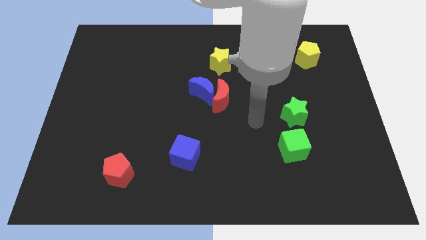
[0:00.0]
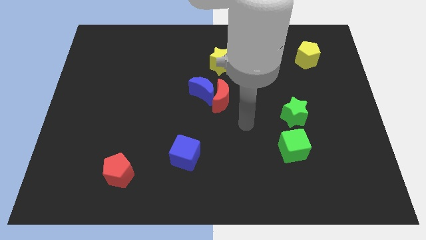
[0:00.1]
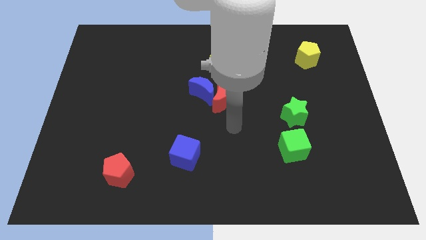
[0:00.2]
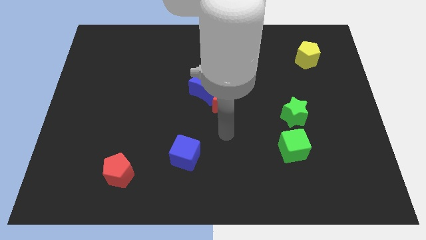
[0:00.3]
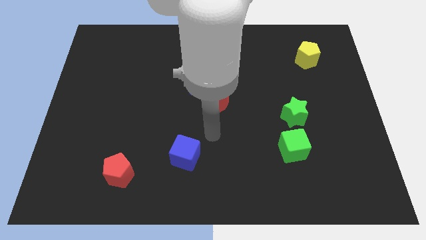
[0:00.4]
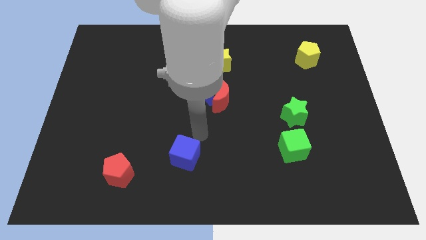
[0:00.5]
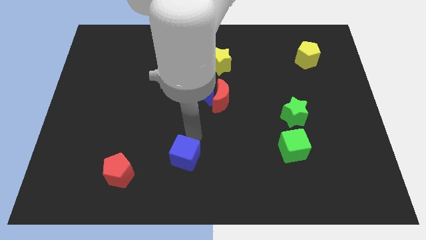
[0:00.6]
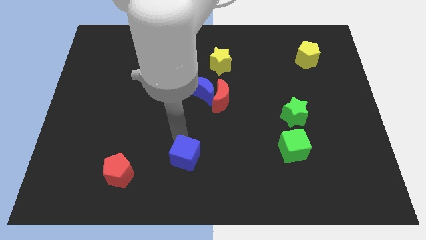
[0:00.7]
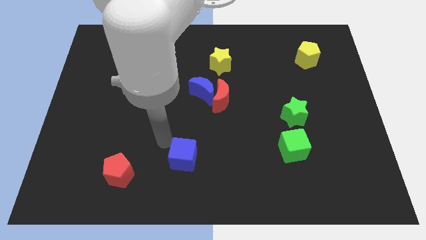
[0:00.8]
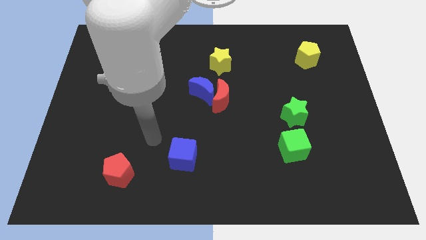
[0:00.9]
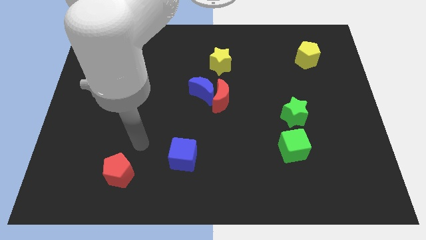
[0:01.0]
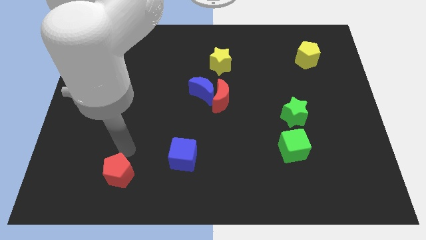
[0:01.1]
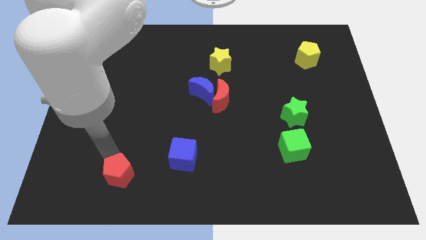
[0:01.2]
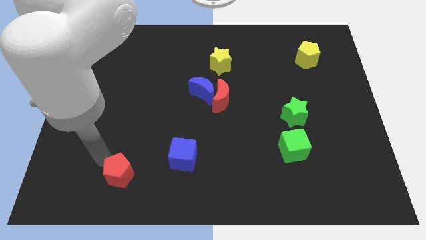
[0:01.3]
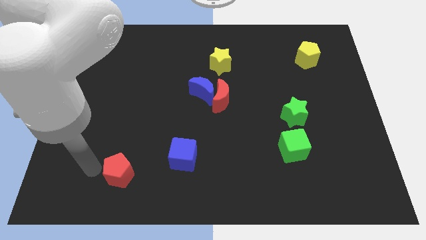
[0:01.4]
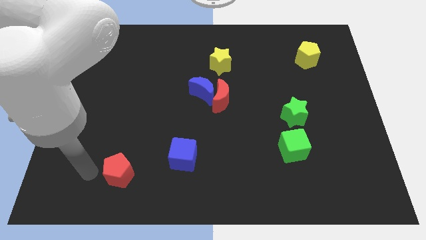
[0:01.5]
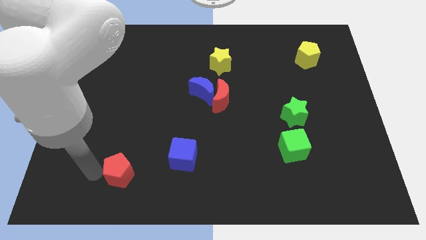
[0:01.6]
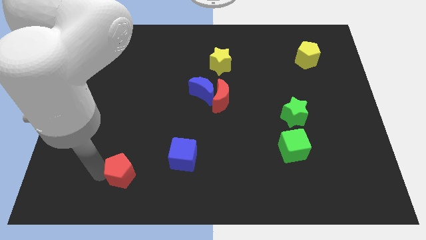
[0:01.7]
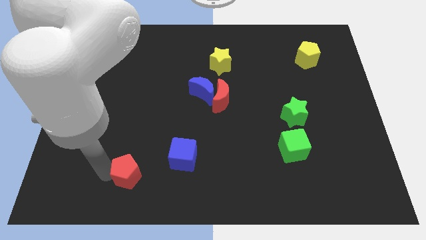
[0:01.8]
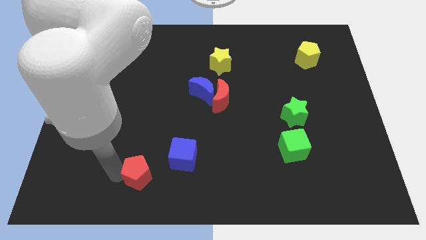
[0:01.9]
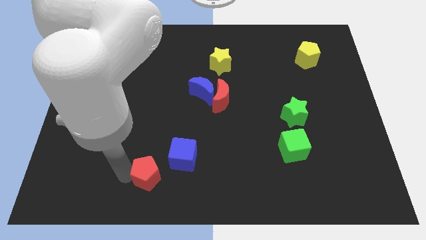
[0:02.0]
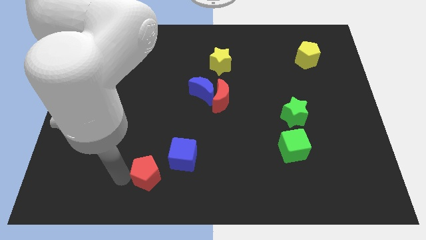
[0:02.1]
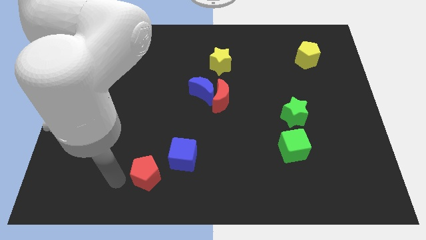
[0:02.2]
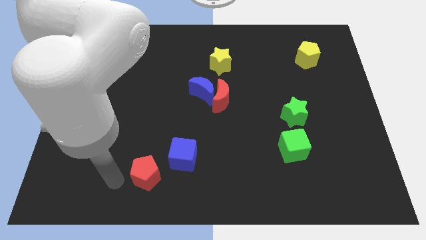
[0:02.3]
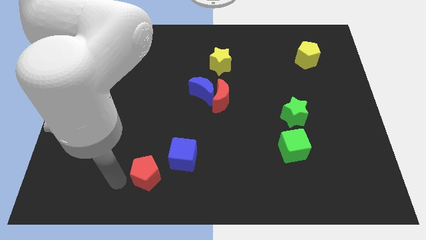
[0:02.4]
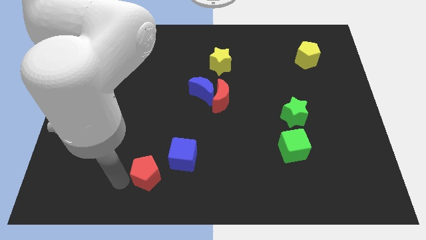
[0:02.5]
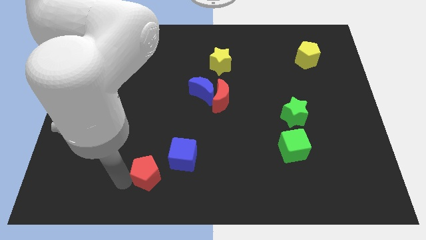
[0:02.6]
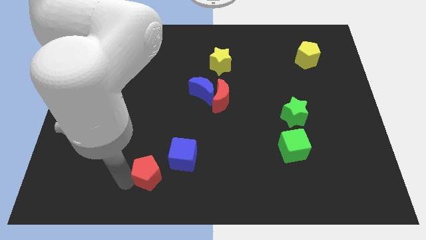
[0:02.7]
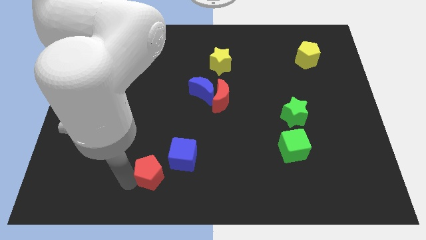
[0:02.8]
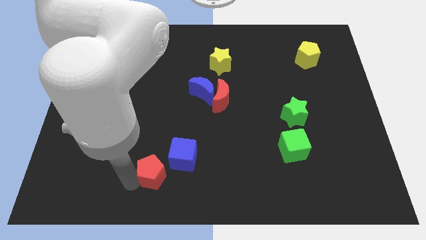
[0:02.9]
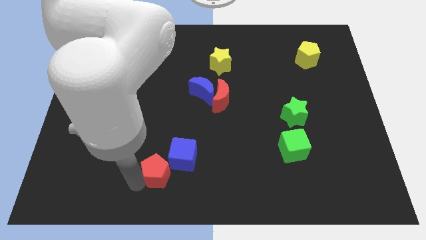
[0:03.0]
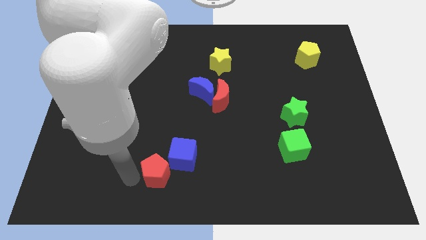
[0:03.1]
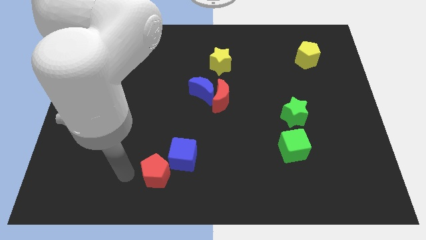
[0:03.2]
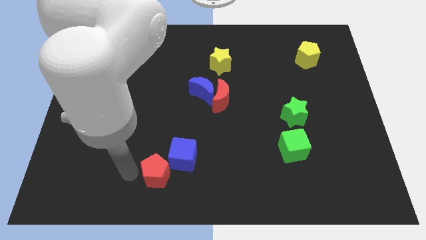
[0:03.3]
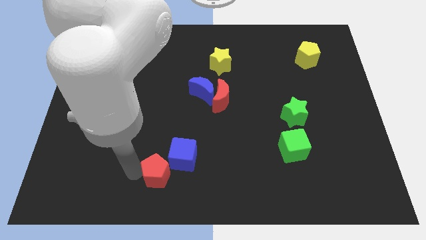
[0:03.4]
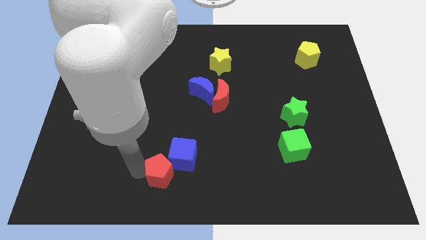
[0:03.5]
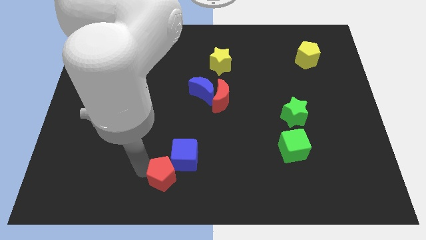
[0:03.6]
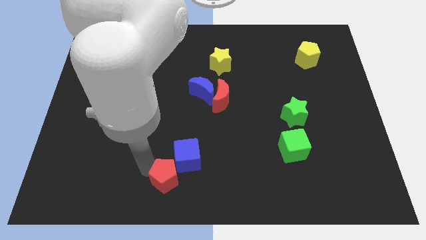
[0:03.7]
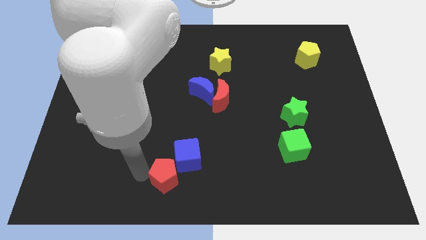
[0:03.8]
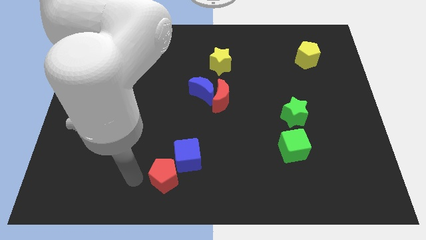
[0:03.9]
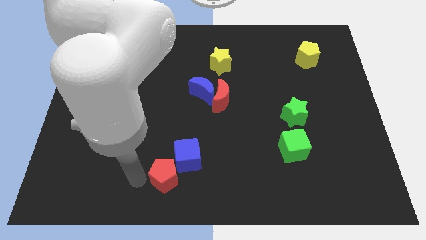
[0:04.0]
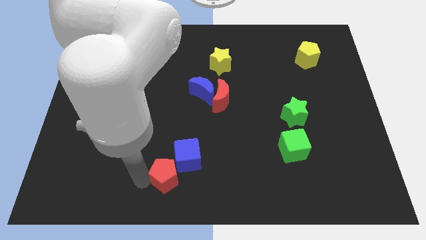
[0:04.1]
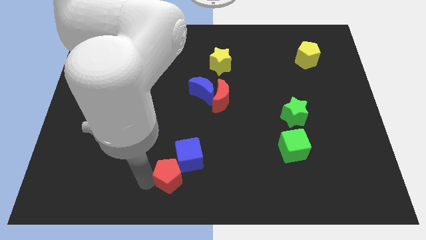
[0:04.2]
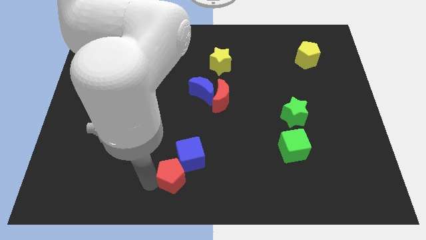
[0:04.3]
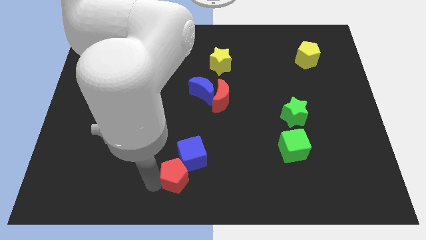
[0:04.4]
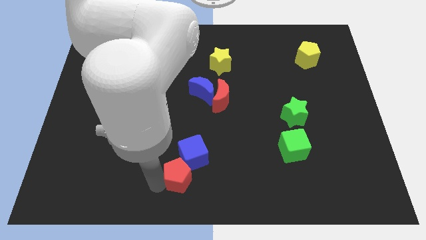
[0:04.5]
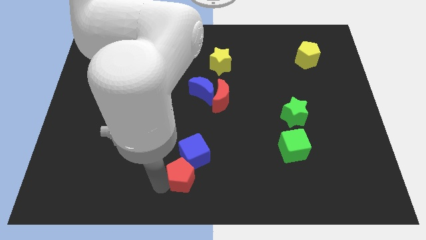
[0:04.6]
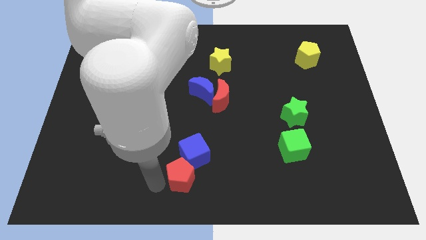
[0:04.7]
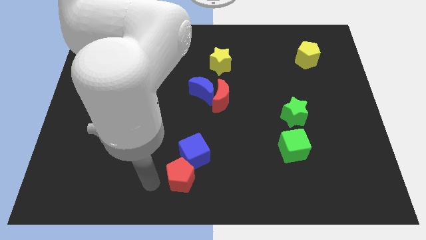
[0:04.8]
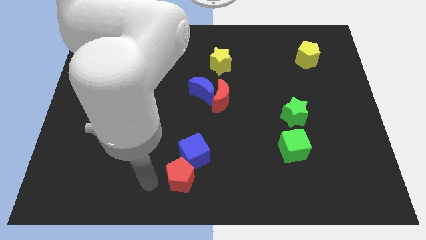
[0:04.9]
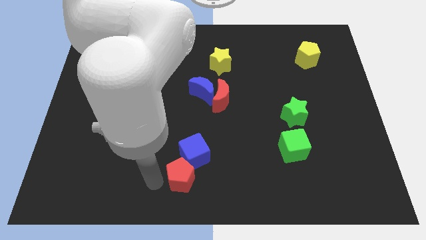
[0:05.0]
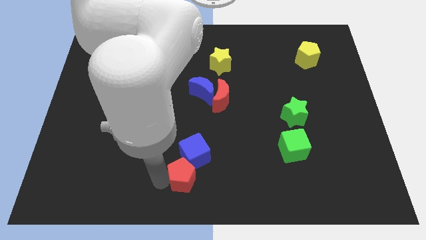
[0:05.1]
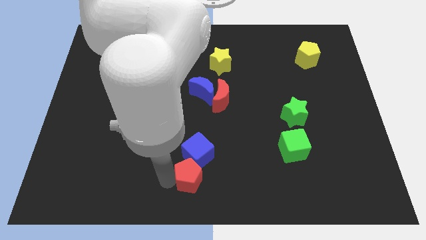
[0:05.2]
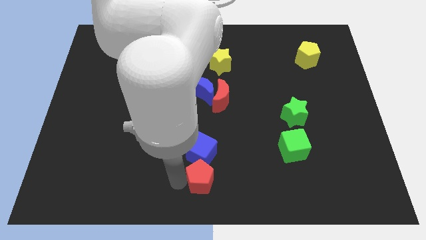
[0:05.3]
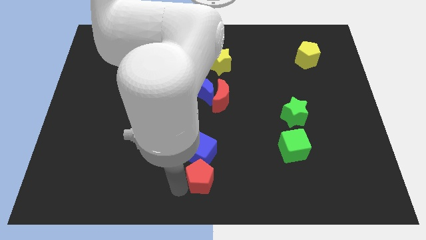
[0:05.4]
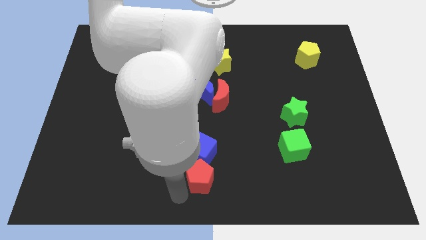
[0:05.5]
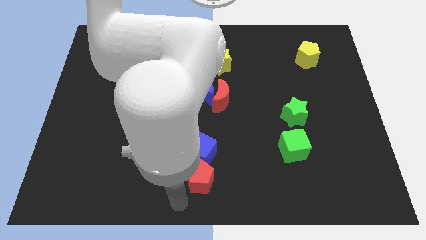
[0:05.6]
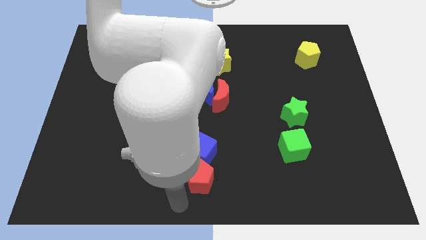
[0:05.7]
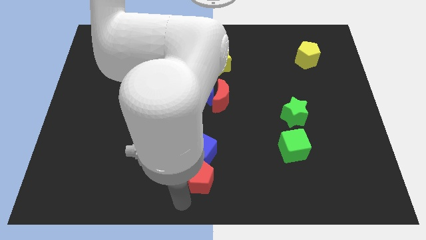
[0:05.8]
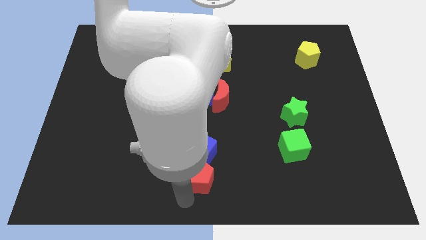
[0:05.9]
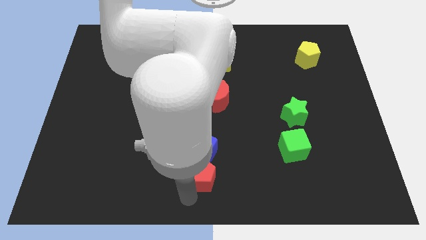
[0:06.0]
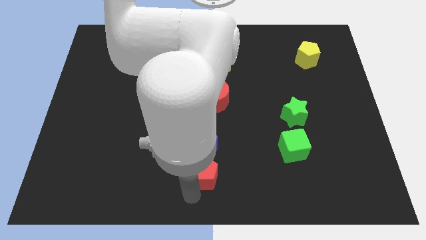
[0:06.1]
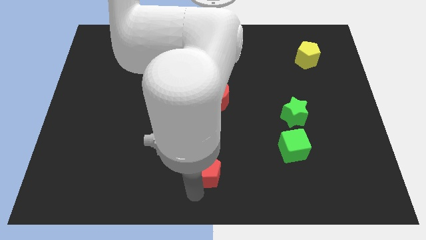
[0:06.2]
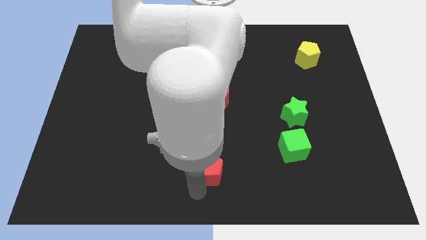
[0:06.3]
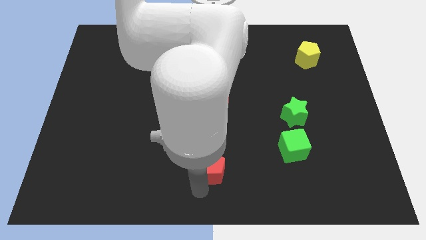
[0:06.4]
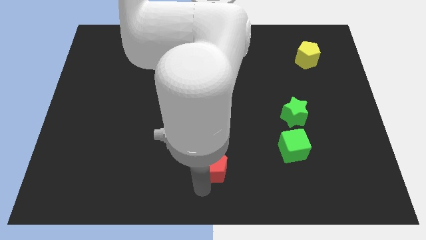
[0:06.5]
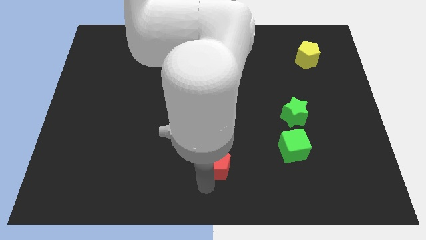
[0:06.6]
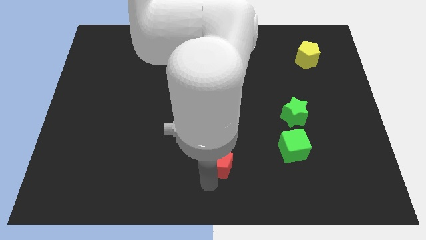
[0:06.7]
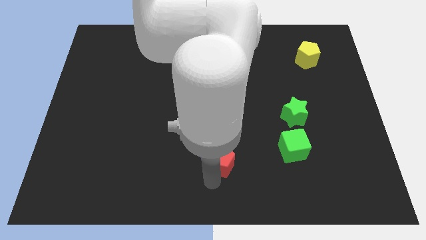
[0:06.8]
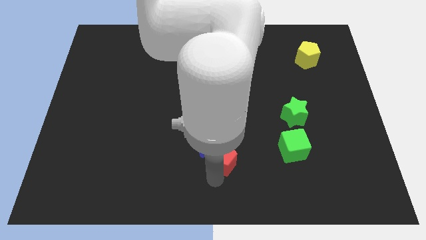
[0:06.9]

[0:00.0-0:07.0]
put the red pentagon left of the green cube
